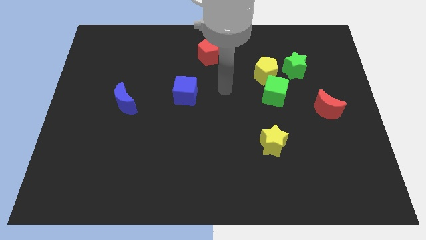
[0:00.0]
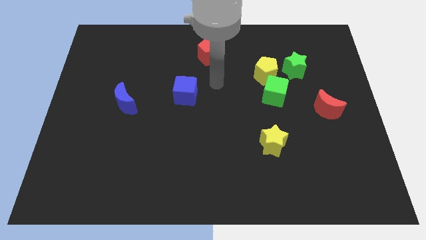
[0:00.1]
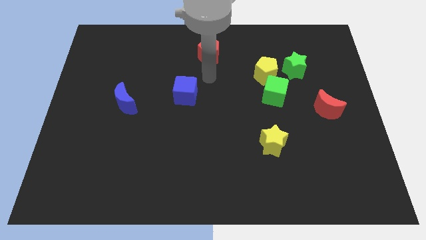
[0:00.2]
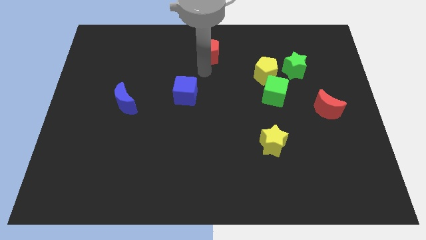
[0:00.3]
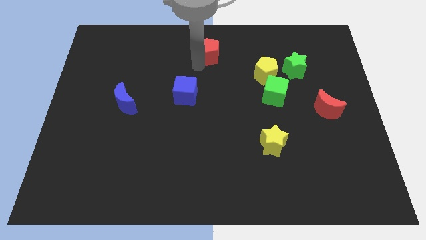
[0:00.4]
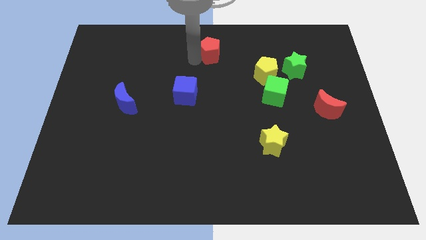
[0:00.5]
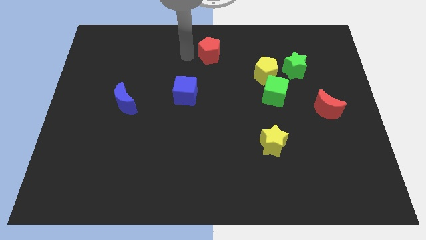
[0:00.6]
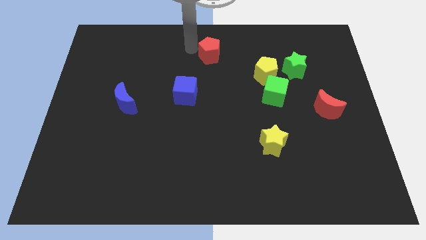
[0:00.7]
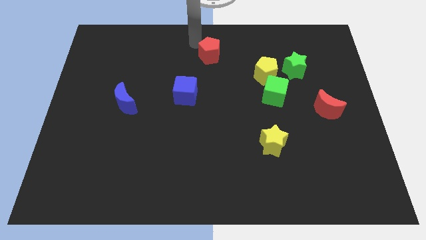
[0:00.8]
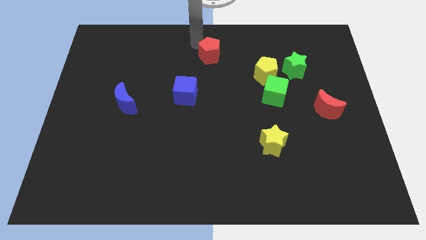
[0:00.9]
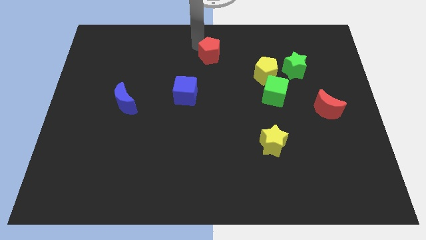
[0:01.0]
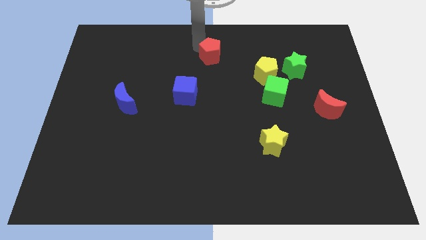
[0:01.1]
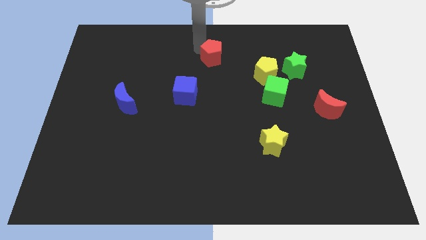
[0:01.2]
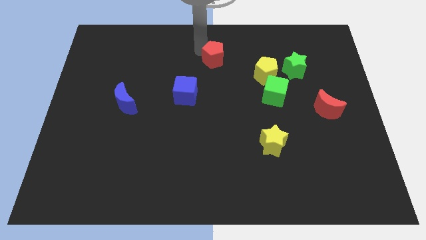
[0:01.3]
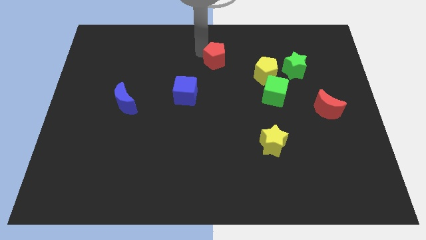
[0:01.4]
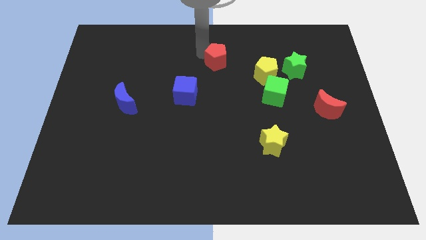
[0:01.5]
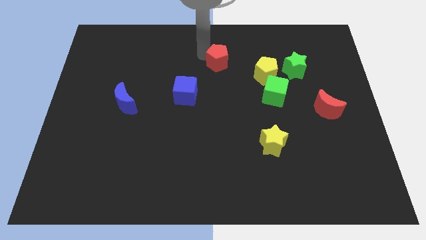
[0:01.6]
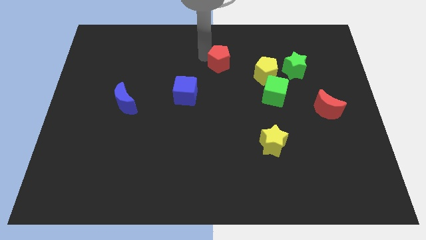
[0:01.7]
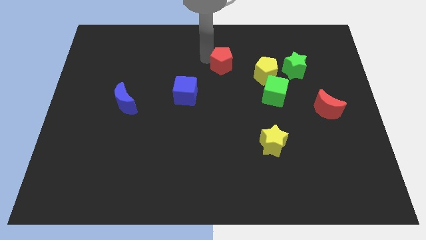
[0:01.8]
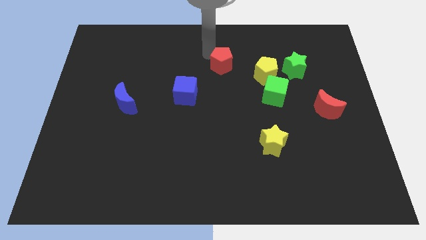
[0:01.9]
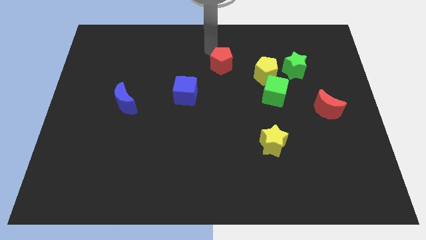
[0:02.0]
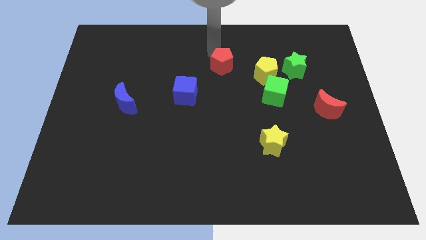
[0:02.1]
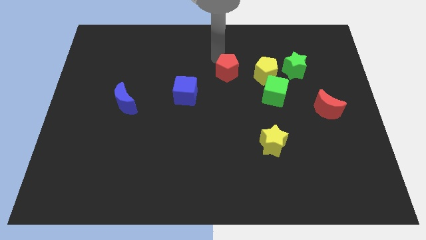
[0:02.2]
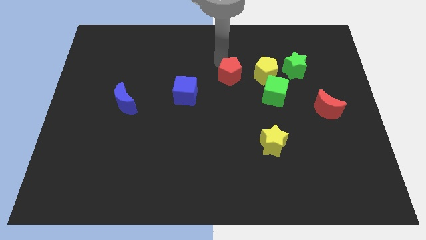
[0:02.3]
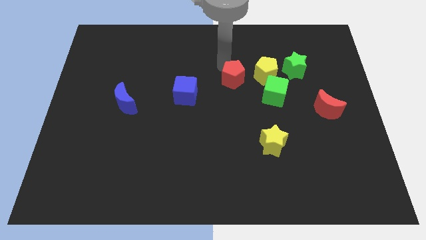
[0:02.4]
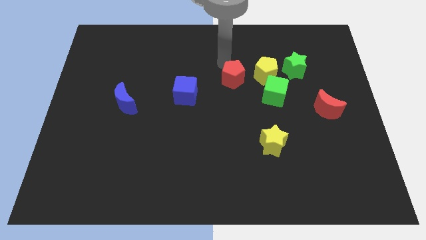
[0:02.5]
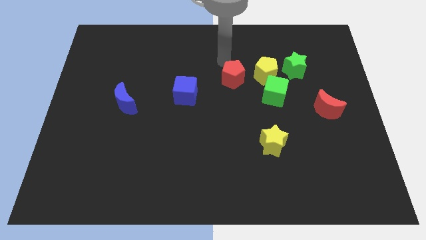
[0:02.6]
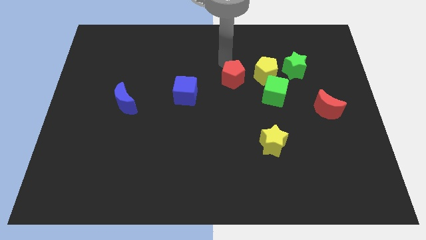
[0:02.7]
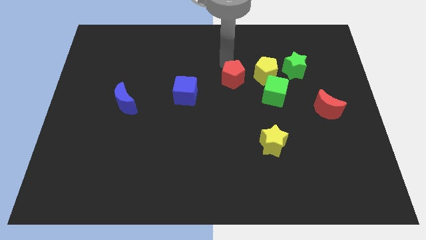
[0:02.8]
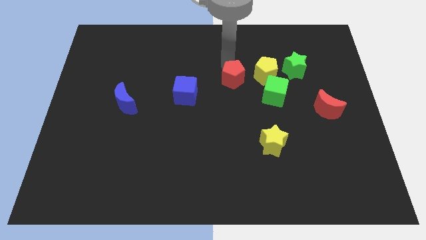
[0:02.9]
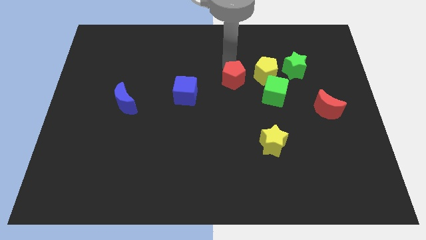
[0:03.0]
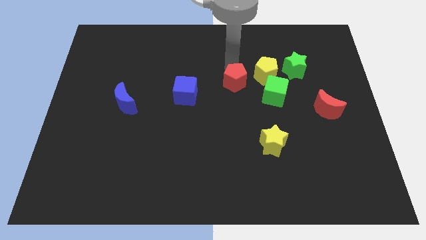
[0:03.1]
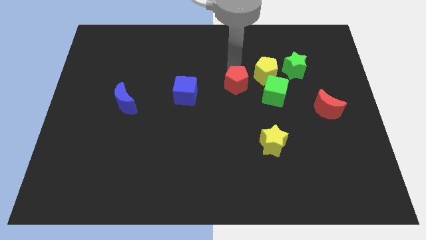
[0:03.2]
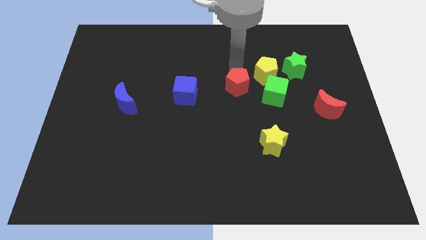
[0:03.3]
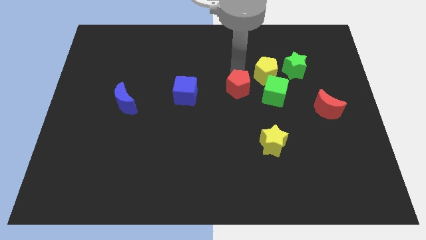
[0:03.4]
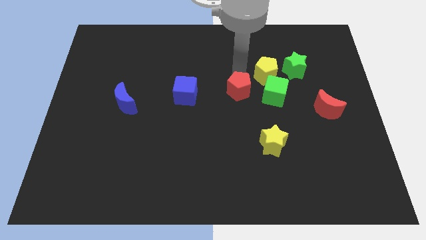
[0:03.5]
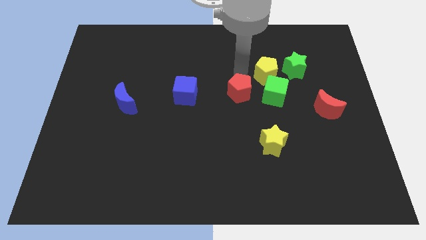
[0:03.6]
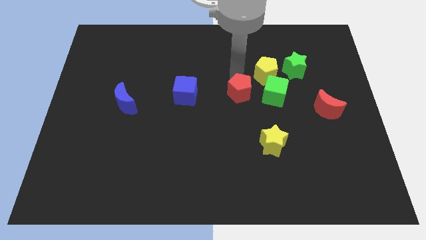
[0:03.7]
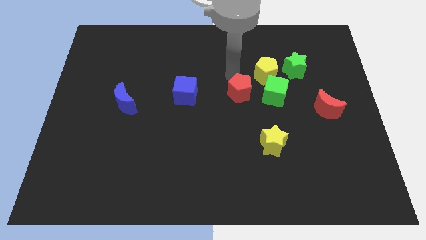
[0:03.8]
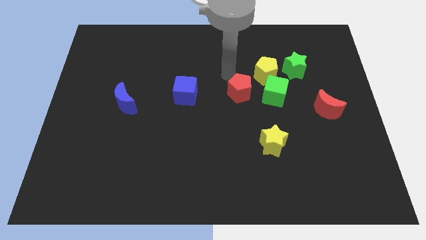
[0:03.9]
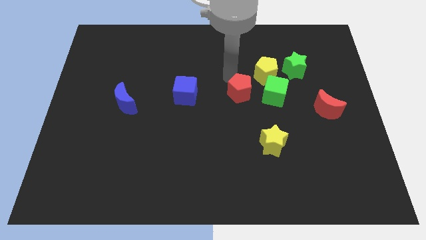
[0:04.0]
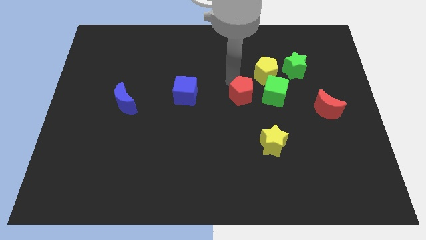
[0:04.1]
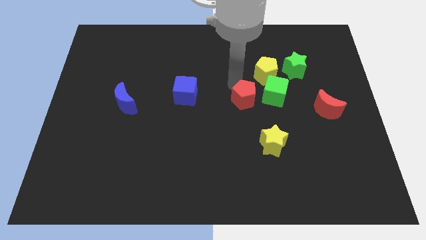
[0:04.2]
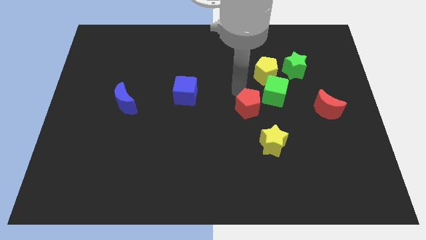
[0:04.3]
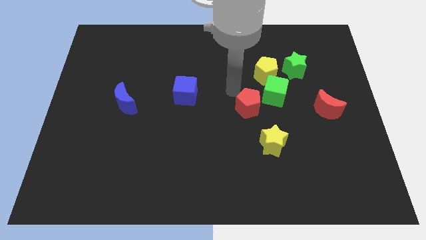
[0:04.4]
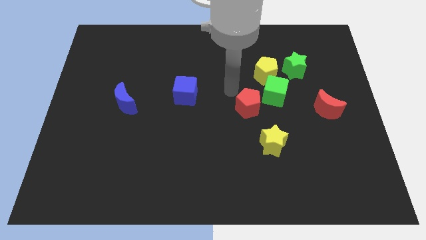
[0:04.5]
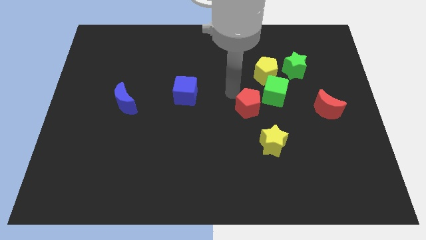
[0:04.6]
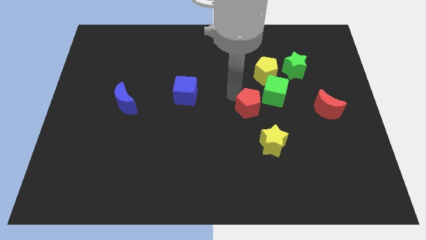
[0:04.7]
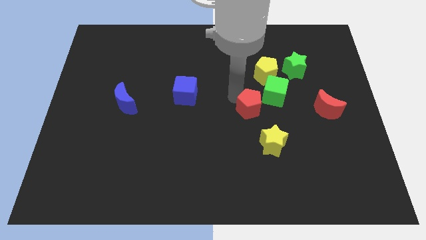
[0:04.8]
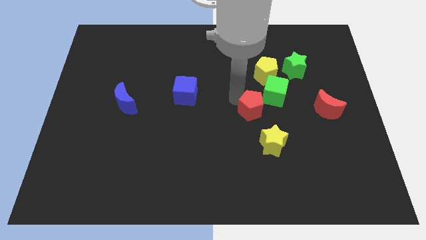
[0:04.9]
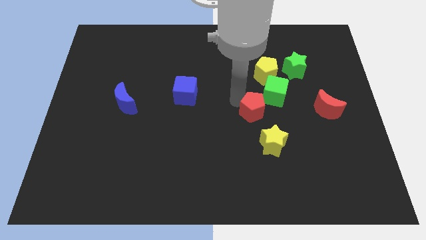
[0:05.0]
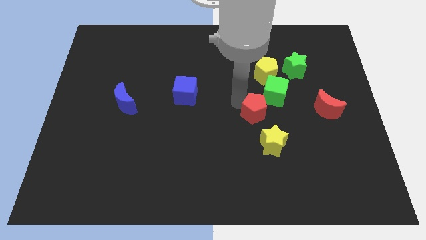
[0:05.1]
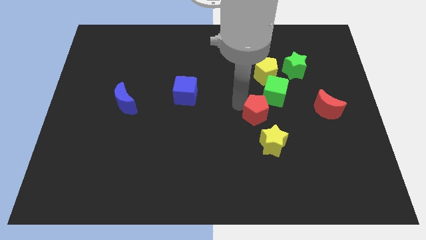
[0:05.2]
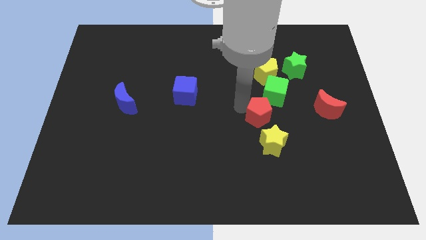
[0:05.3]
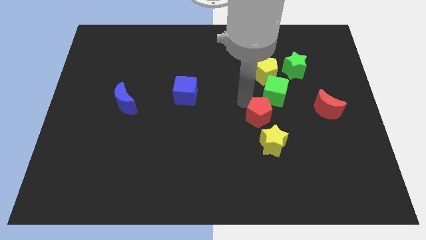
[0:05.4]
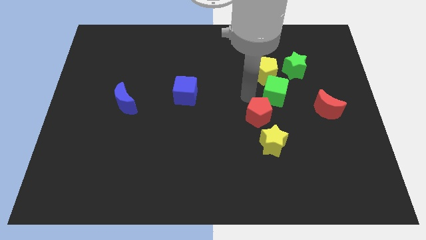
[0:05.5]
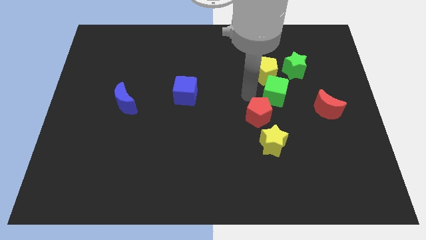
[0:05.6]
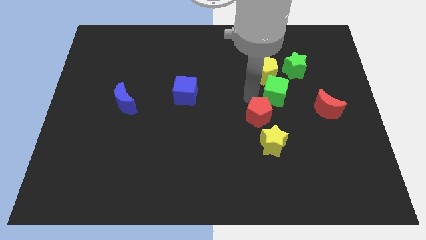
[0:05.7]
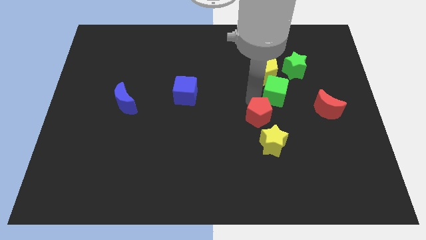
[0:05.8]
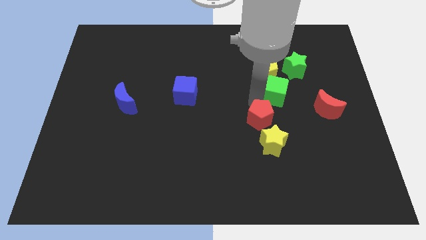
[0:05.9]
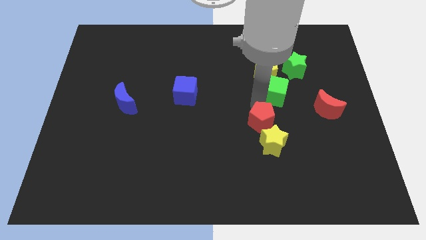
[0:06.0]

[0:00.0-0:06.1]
push the red pentagon to the yellow star

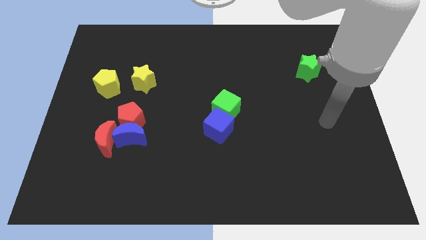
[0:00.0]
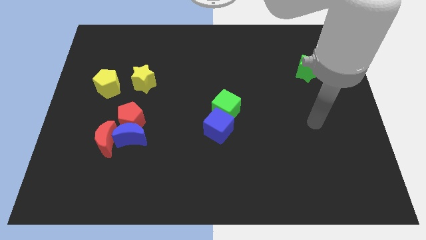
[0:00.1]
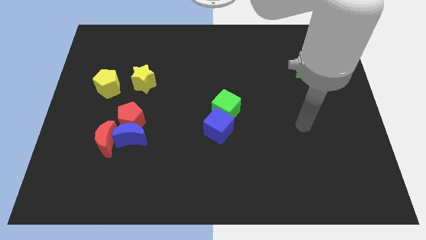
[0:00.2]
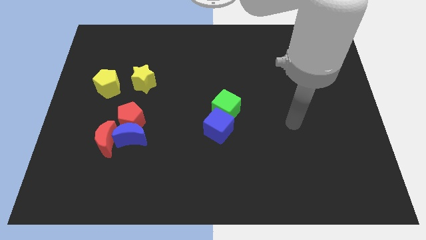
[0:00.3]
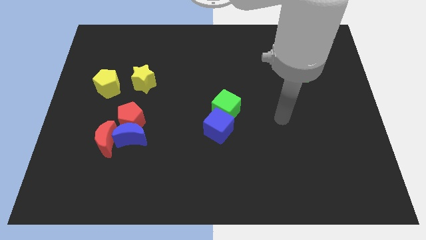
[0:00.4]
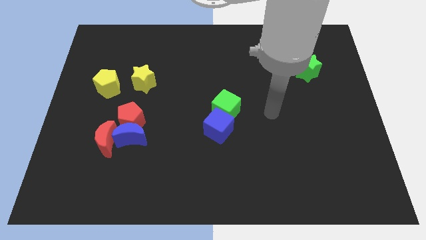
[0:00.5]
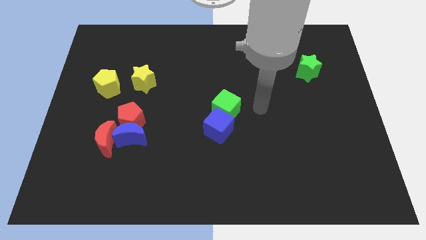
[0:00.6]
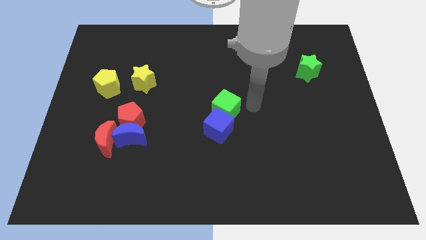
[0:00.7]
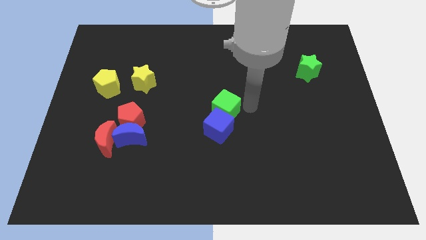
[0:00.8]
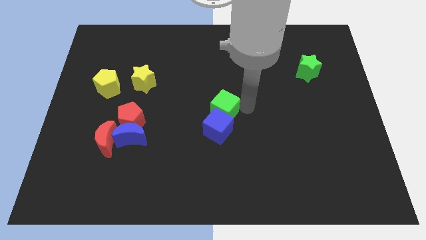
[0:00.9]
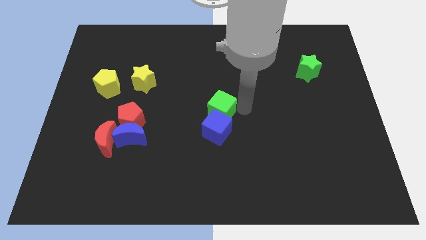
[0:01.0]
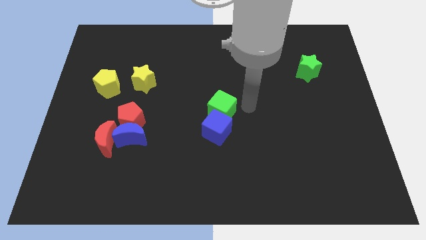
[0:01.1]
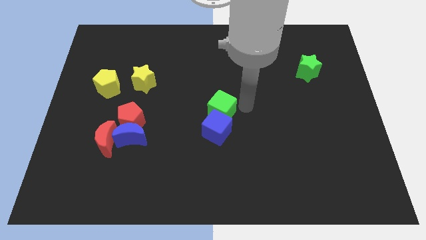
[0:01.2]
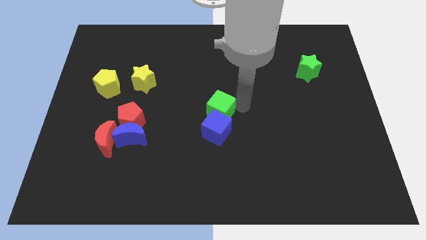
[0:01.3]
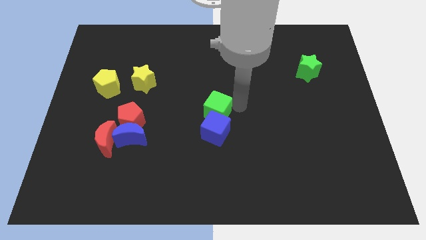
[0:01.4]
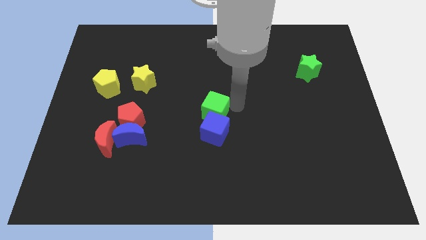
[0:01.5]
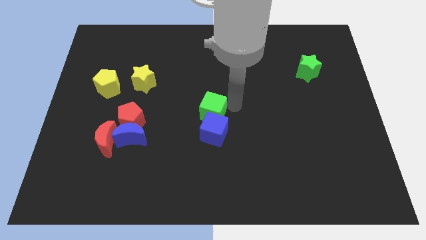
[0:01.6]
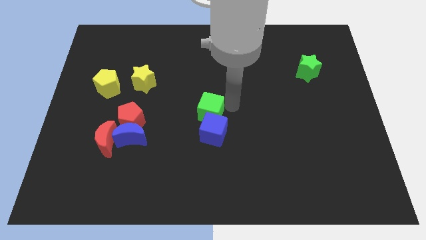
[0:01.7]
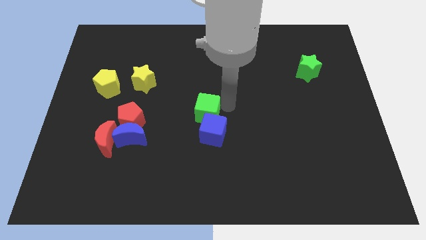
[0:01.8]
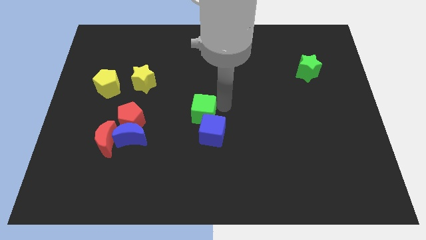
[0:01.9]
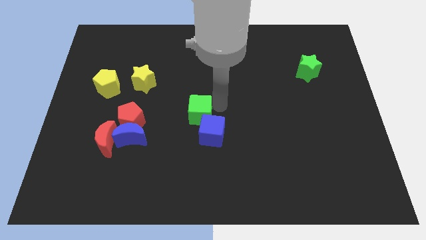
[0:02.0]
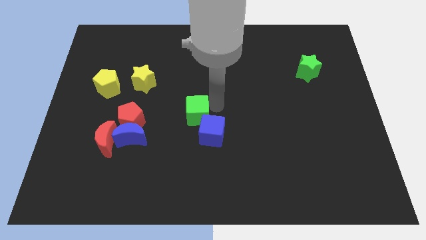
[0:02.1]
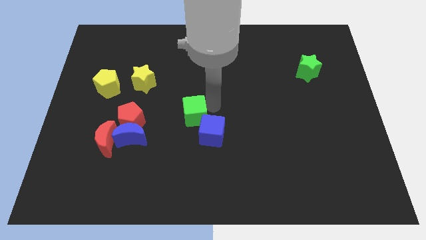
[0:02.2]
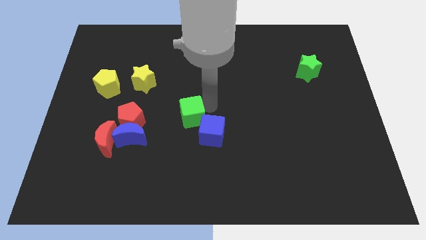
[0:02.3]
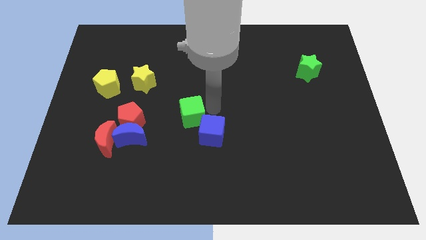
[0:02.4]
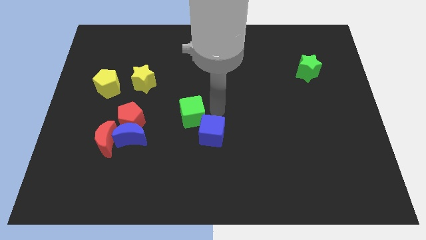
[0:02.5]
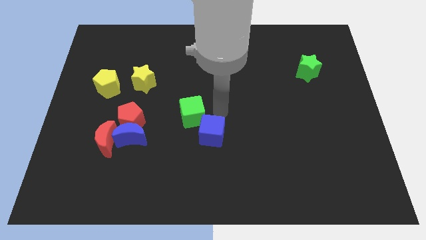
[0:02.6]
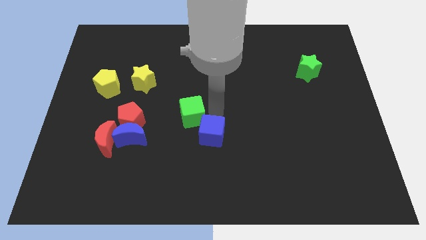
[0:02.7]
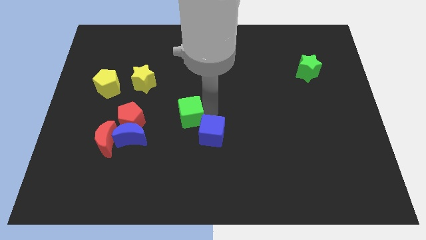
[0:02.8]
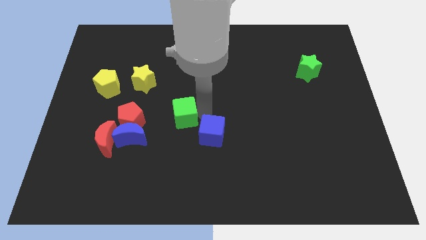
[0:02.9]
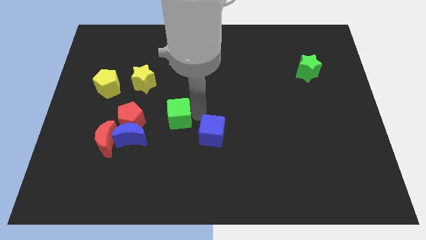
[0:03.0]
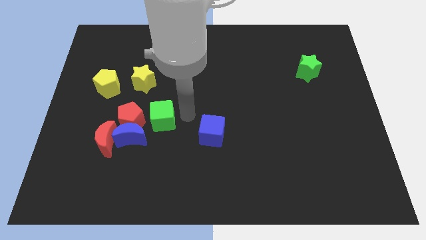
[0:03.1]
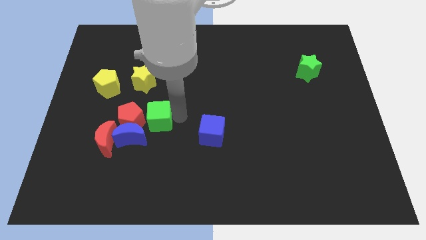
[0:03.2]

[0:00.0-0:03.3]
move the green cube close to the red pentagon
